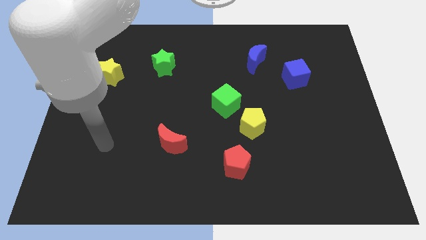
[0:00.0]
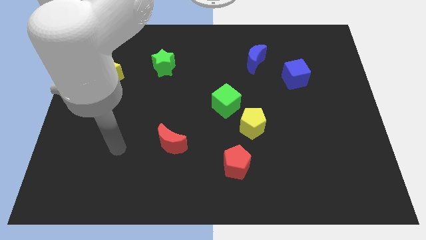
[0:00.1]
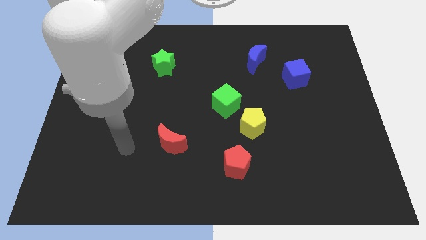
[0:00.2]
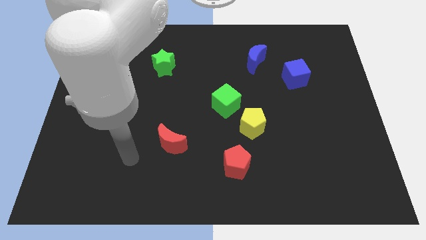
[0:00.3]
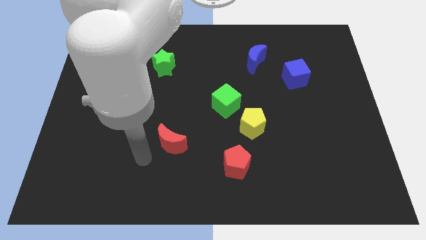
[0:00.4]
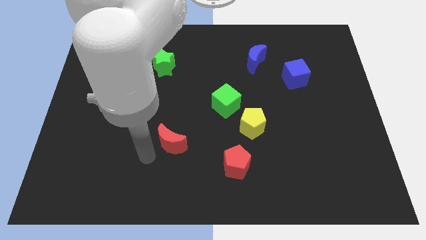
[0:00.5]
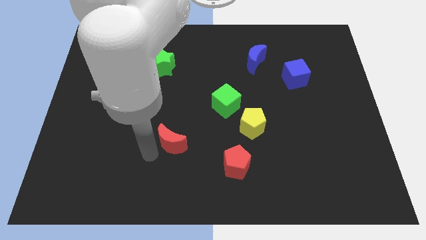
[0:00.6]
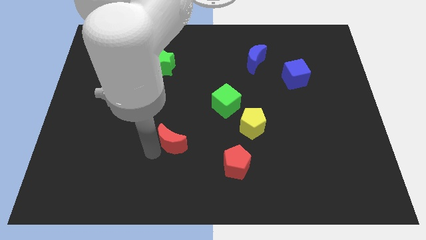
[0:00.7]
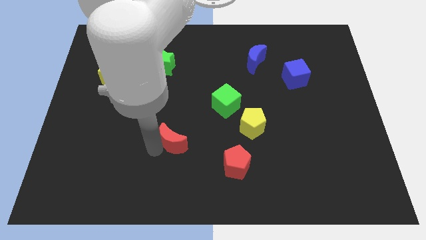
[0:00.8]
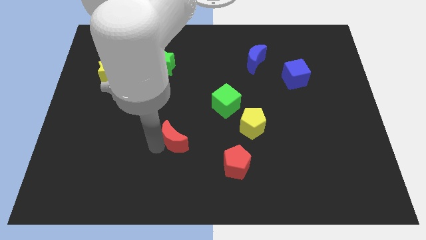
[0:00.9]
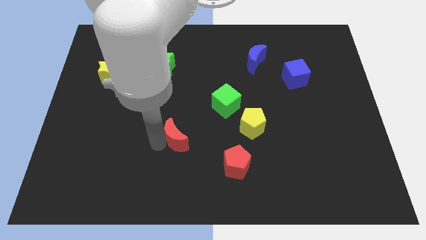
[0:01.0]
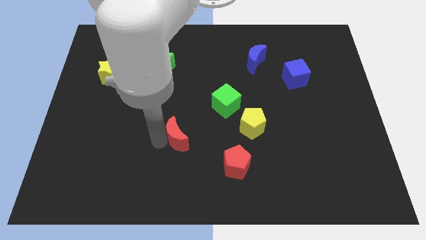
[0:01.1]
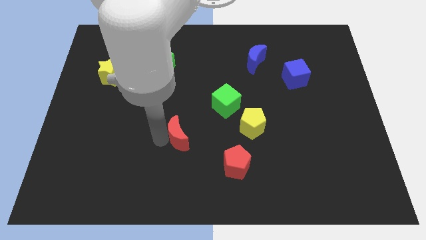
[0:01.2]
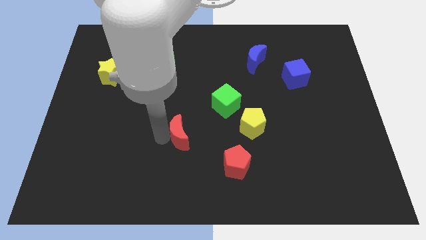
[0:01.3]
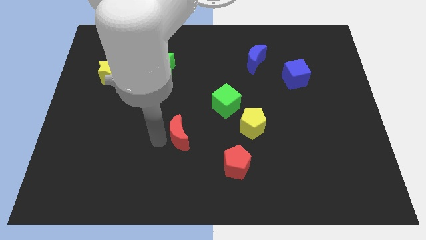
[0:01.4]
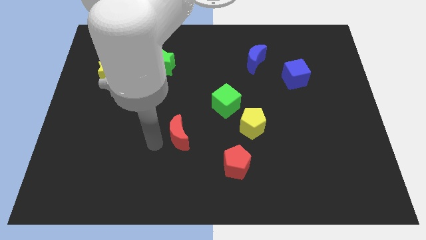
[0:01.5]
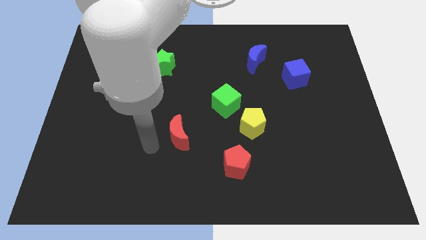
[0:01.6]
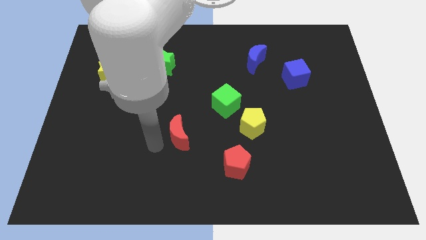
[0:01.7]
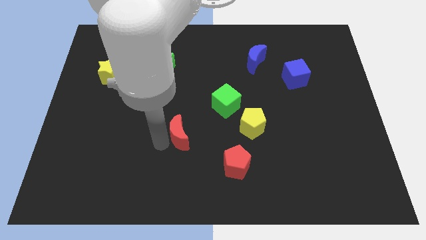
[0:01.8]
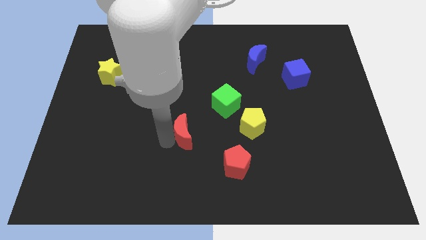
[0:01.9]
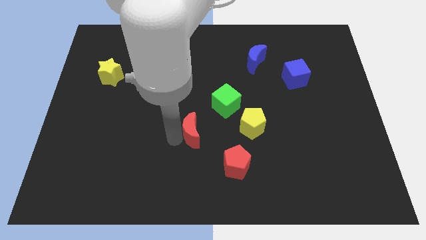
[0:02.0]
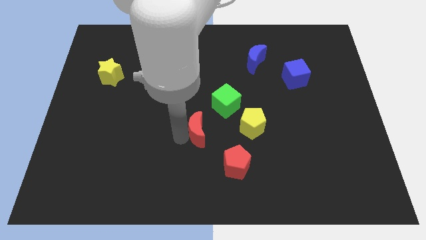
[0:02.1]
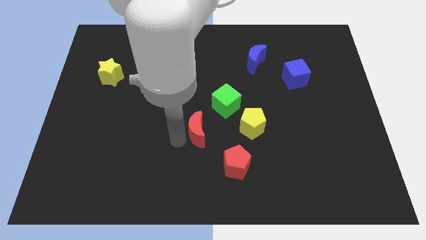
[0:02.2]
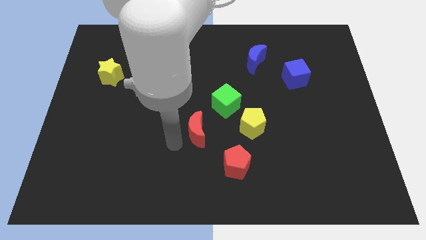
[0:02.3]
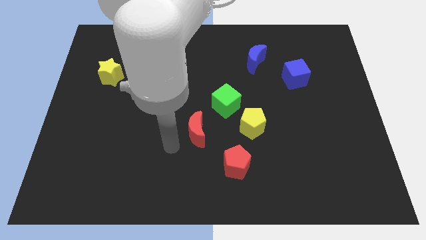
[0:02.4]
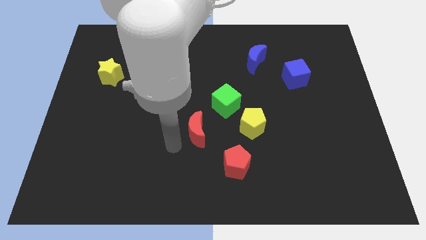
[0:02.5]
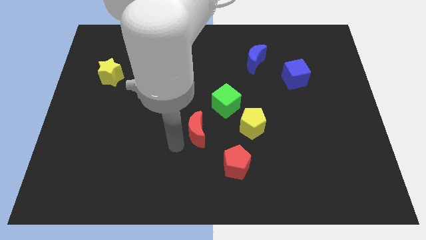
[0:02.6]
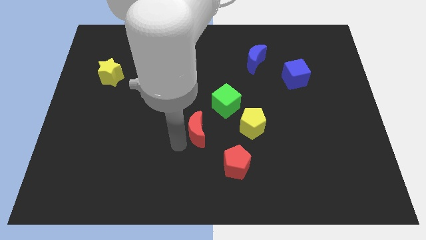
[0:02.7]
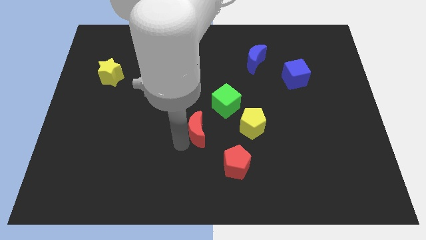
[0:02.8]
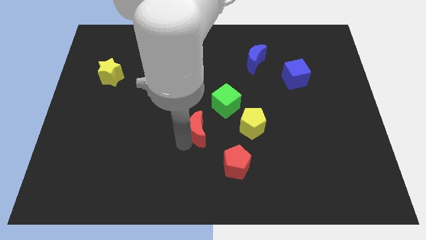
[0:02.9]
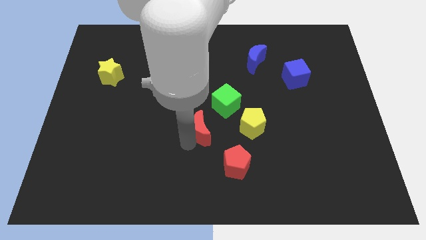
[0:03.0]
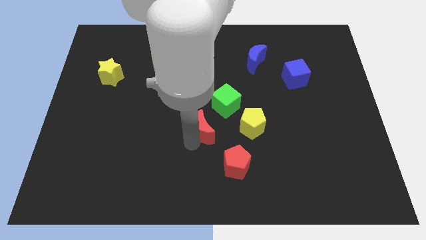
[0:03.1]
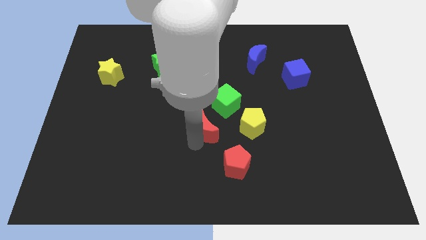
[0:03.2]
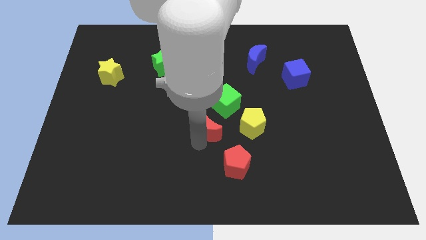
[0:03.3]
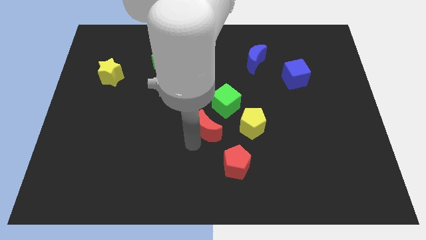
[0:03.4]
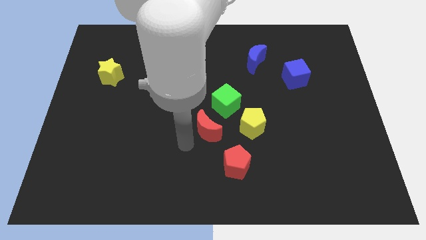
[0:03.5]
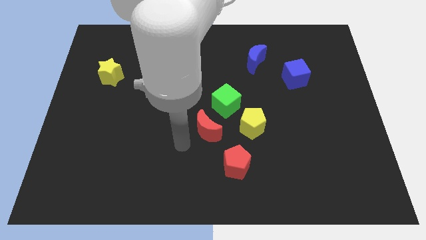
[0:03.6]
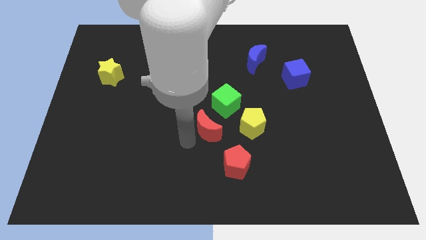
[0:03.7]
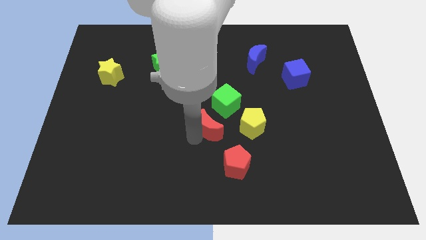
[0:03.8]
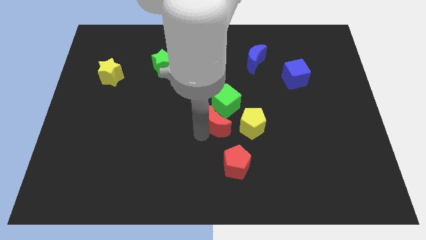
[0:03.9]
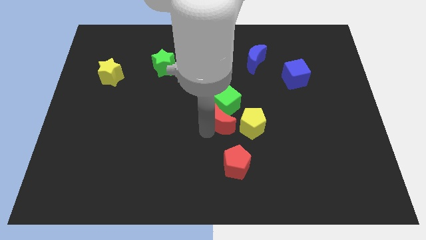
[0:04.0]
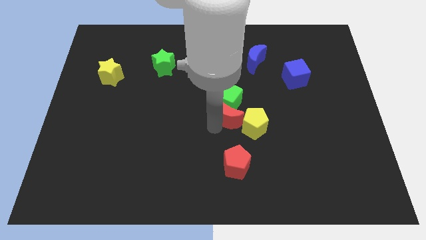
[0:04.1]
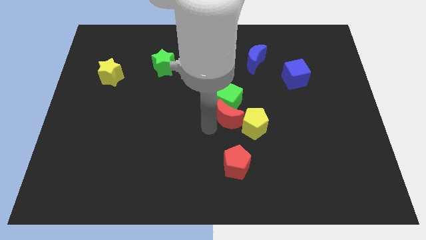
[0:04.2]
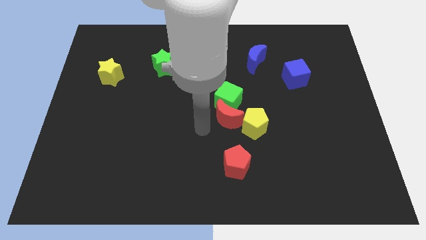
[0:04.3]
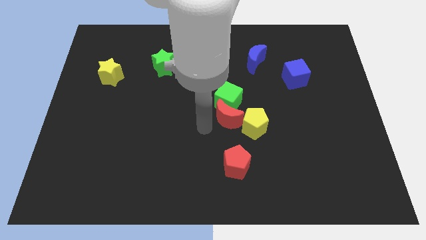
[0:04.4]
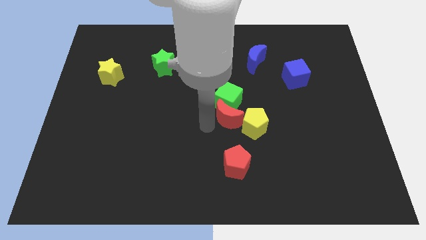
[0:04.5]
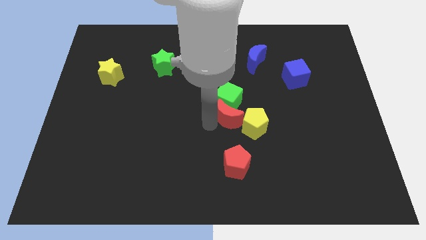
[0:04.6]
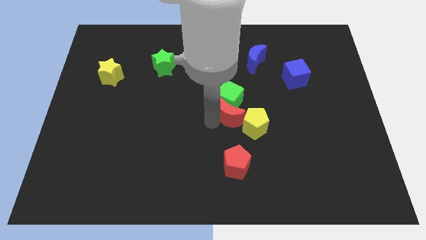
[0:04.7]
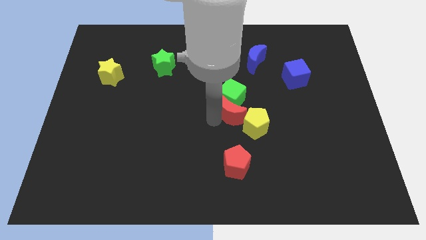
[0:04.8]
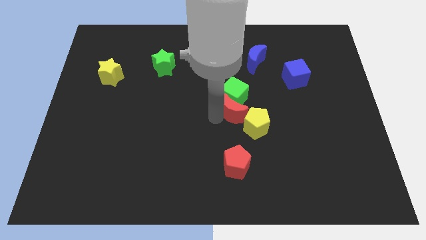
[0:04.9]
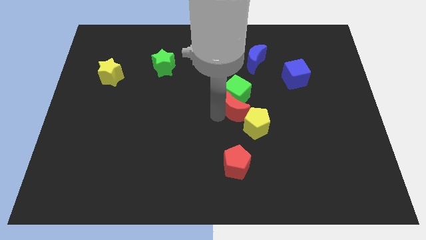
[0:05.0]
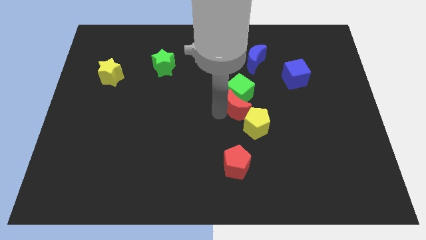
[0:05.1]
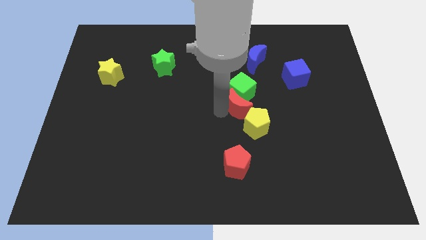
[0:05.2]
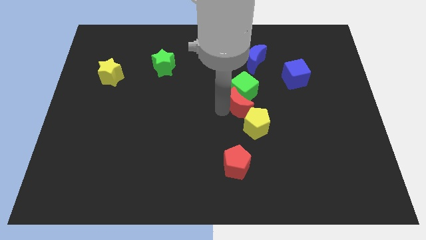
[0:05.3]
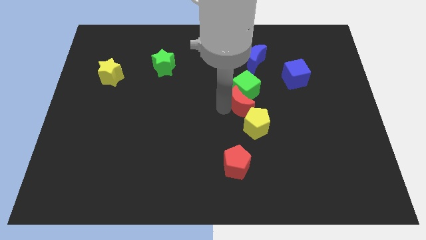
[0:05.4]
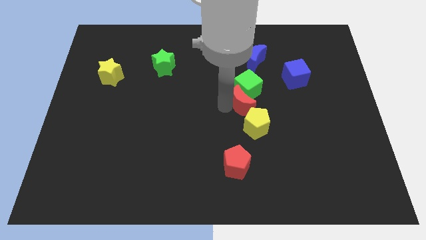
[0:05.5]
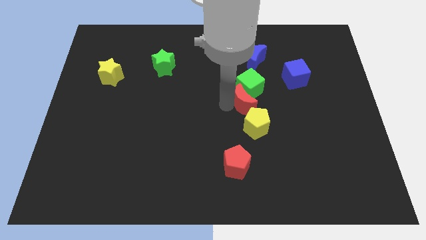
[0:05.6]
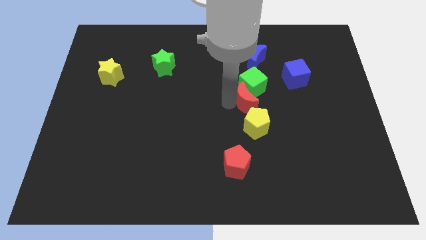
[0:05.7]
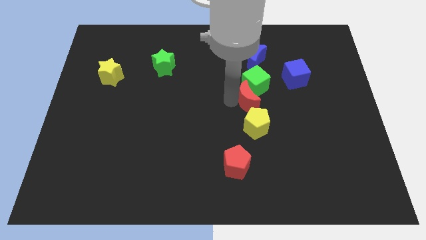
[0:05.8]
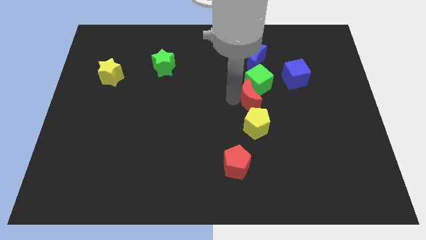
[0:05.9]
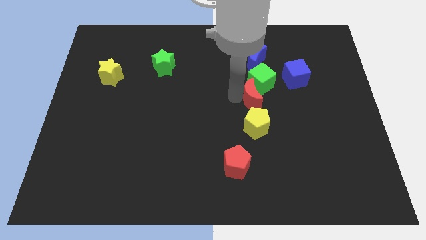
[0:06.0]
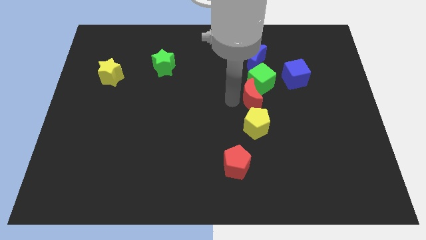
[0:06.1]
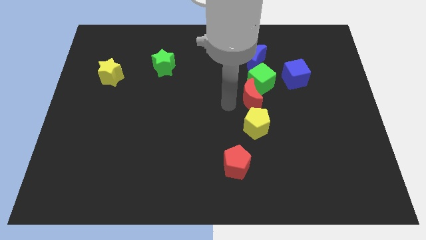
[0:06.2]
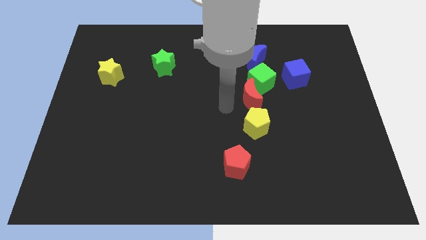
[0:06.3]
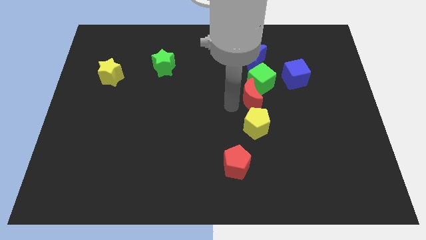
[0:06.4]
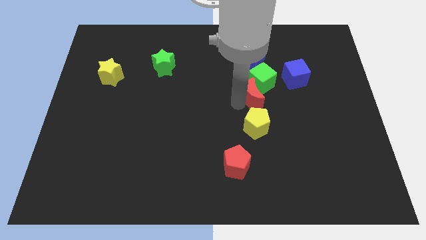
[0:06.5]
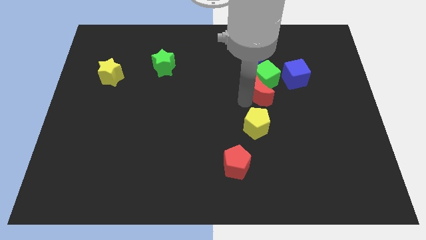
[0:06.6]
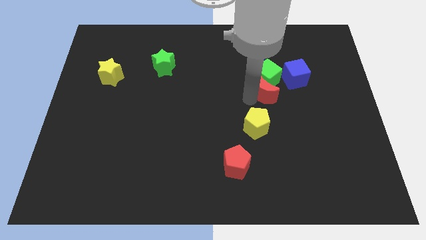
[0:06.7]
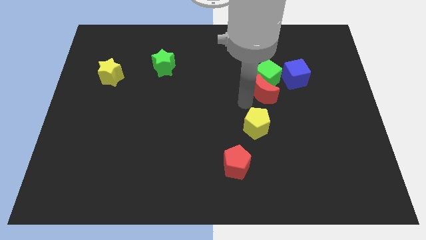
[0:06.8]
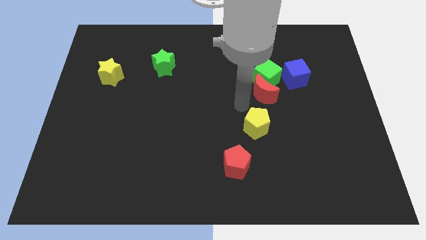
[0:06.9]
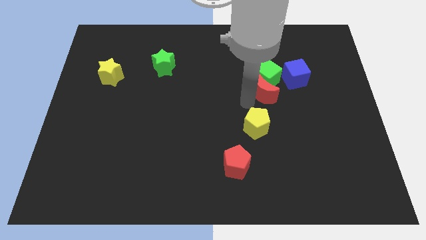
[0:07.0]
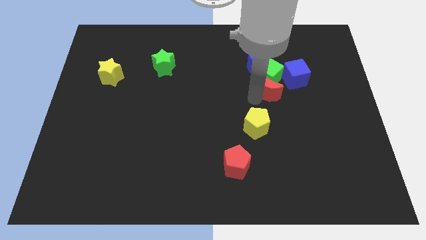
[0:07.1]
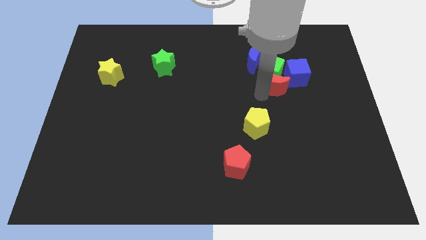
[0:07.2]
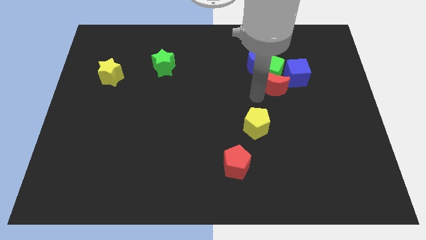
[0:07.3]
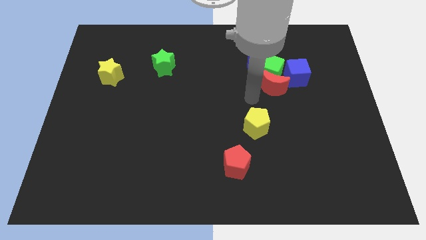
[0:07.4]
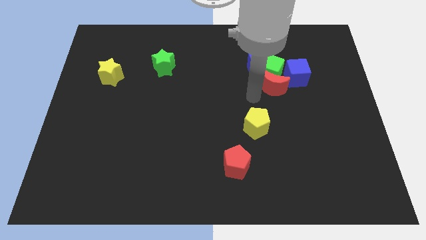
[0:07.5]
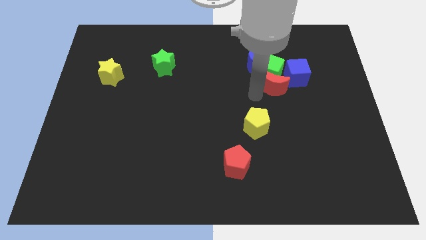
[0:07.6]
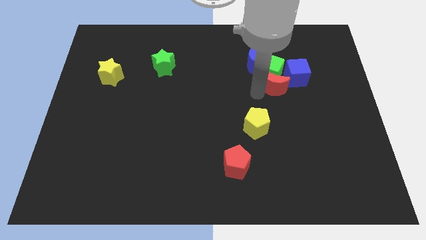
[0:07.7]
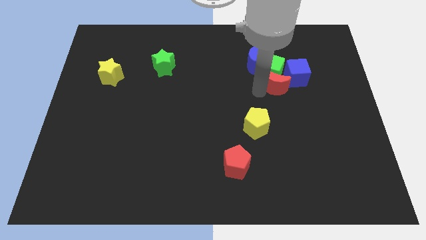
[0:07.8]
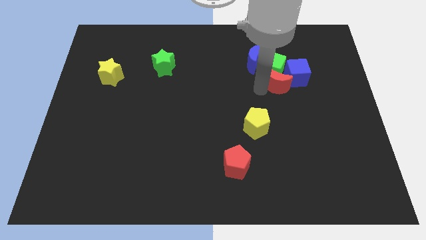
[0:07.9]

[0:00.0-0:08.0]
put the red moon towards the blue cube
